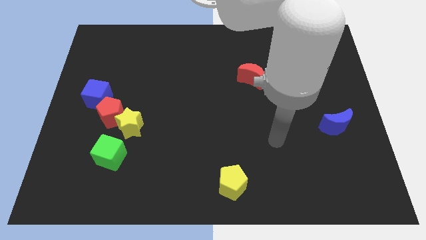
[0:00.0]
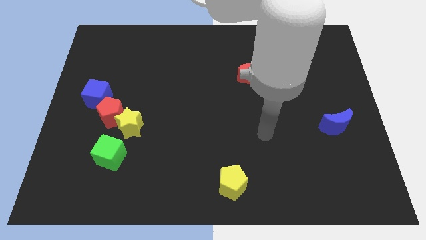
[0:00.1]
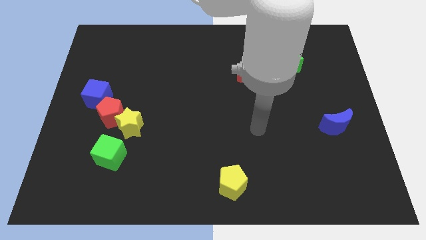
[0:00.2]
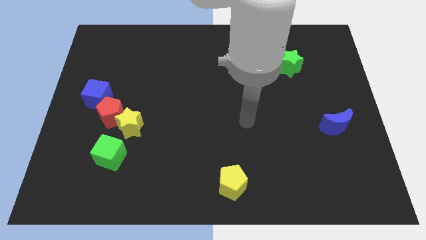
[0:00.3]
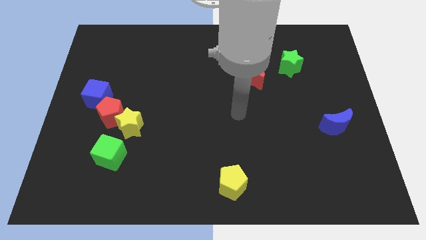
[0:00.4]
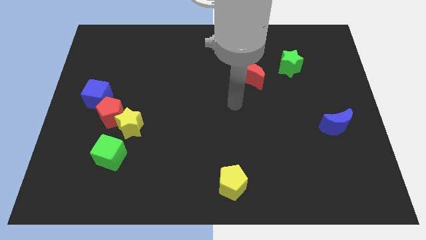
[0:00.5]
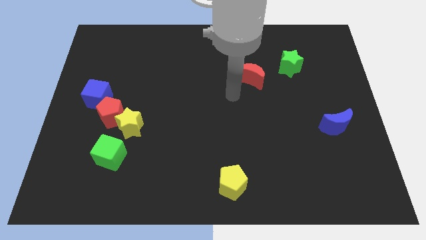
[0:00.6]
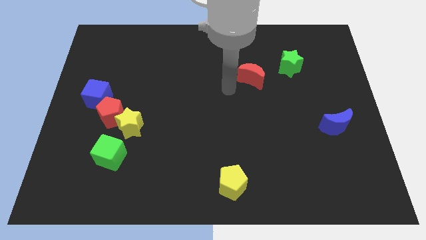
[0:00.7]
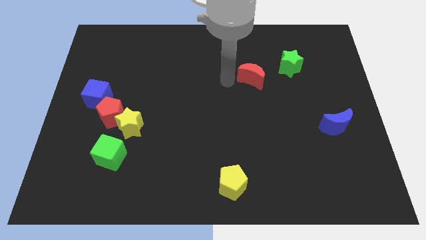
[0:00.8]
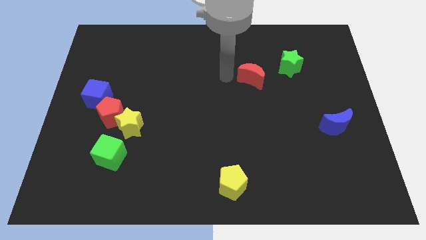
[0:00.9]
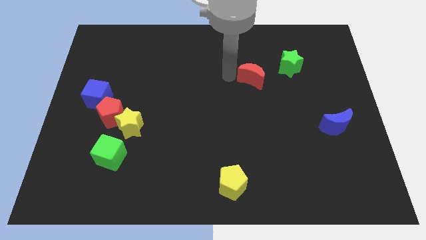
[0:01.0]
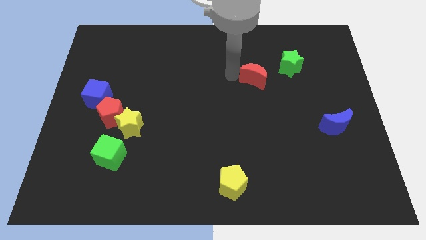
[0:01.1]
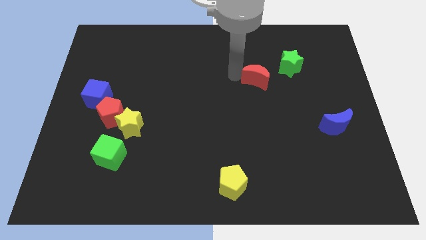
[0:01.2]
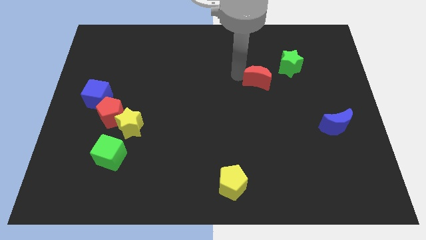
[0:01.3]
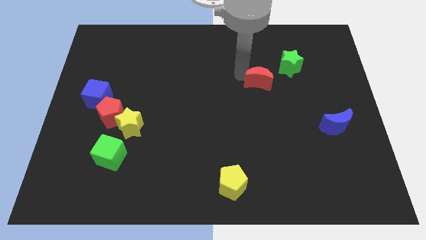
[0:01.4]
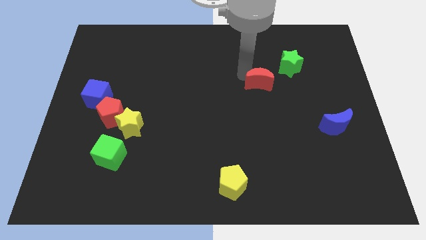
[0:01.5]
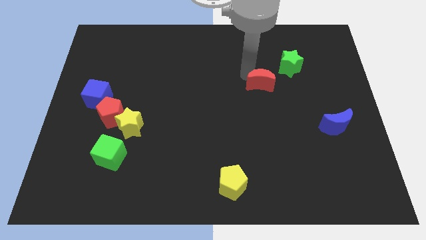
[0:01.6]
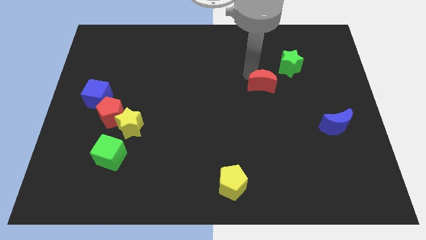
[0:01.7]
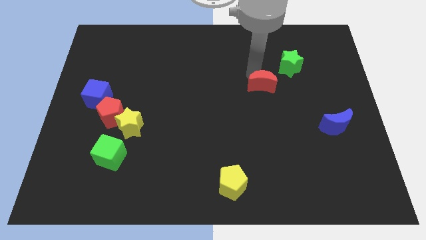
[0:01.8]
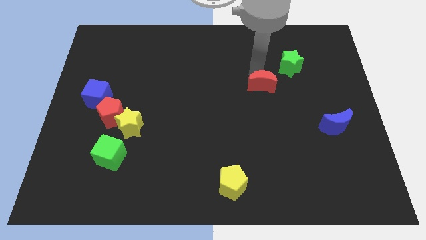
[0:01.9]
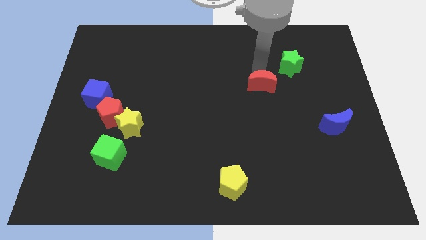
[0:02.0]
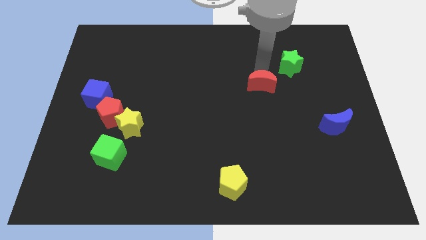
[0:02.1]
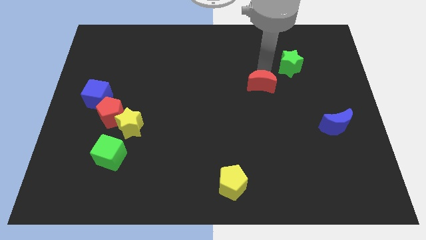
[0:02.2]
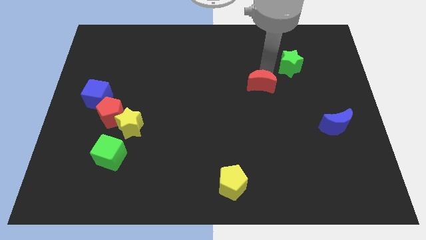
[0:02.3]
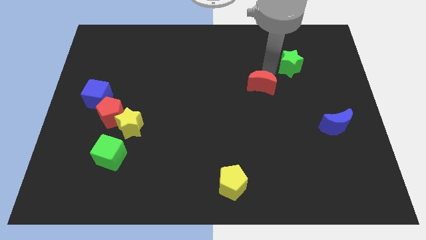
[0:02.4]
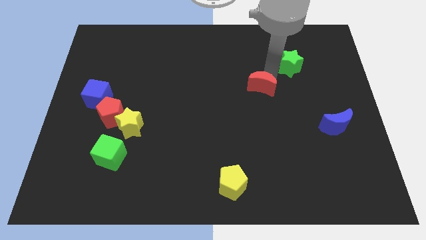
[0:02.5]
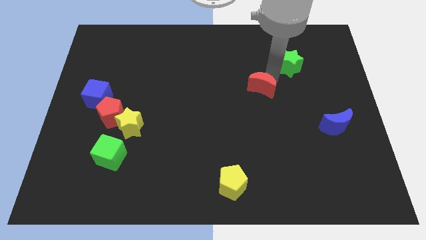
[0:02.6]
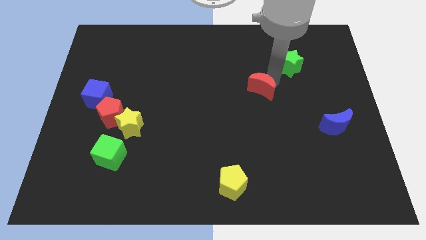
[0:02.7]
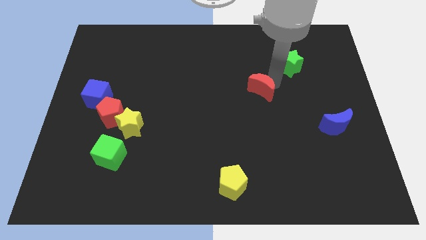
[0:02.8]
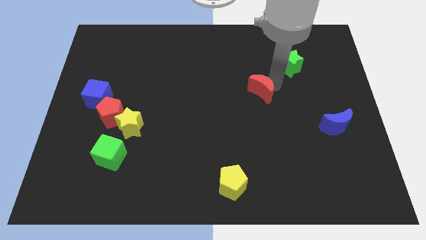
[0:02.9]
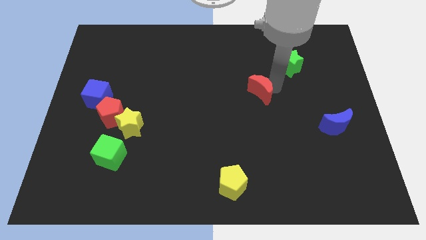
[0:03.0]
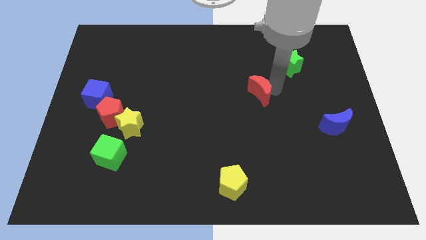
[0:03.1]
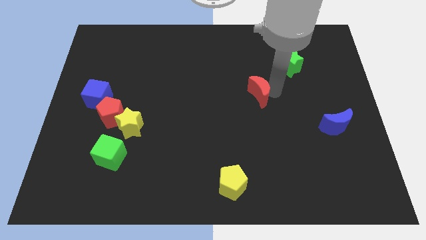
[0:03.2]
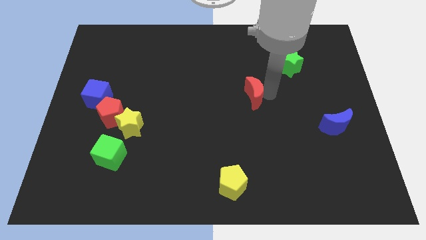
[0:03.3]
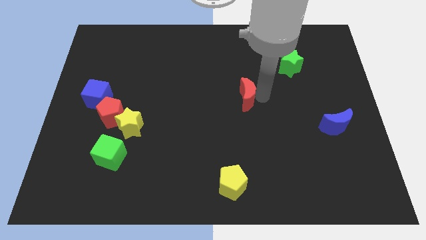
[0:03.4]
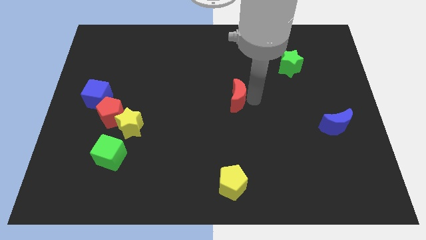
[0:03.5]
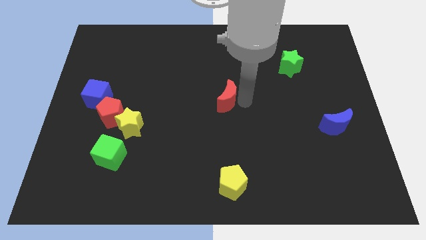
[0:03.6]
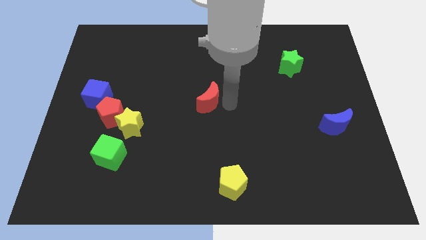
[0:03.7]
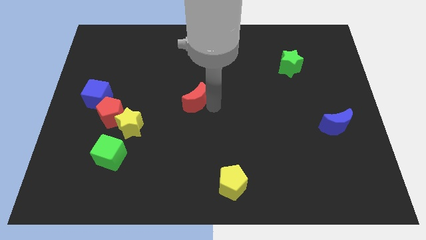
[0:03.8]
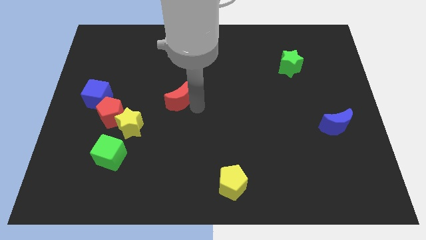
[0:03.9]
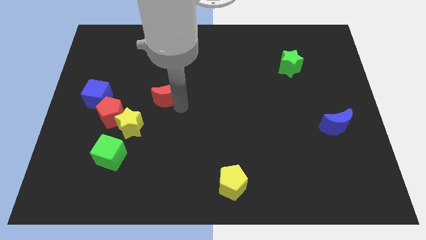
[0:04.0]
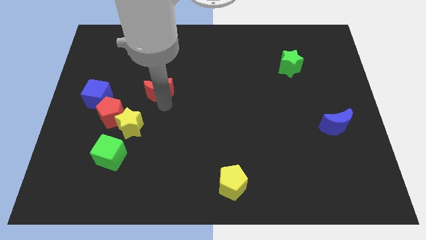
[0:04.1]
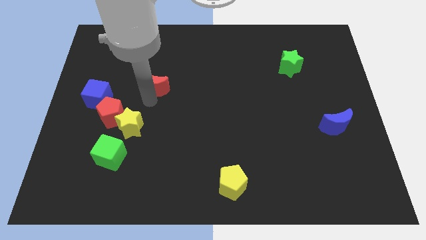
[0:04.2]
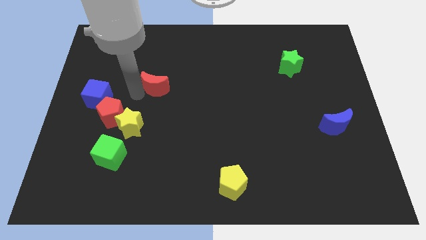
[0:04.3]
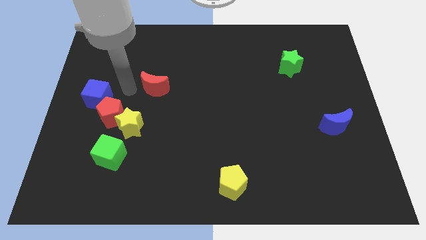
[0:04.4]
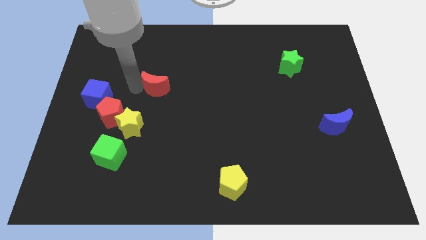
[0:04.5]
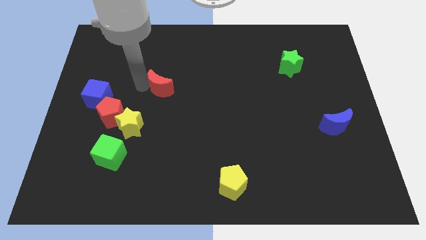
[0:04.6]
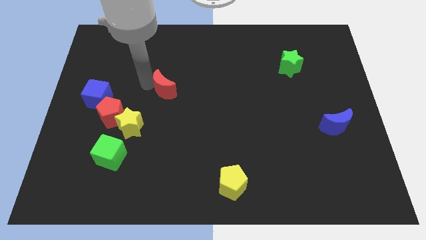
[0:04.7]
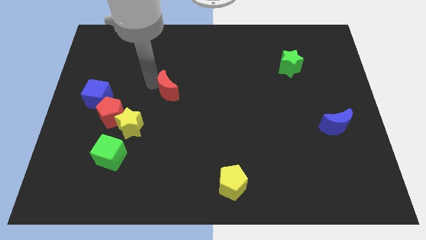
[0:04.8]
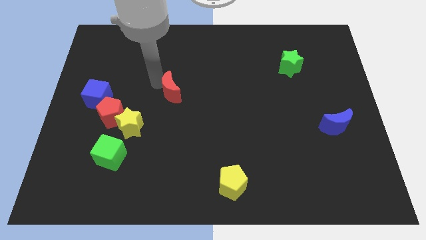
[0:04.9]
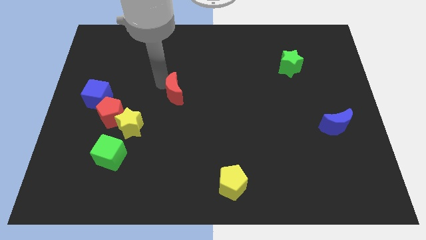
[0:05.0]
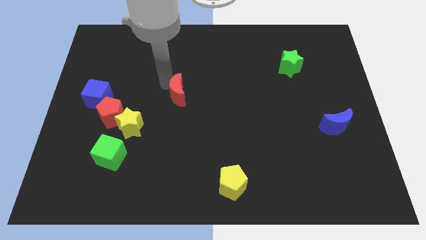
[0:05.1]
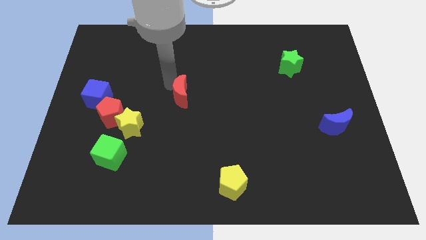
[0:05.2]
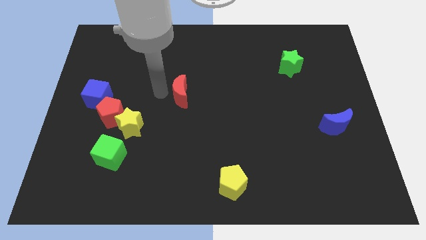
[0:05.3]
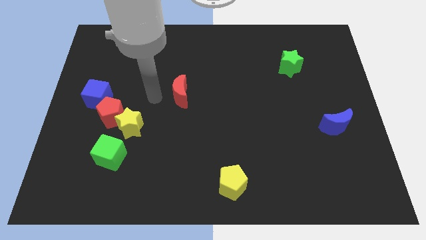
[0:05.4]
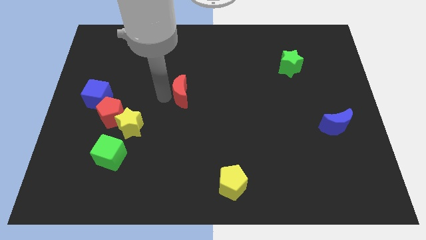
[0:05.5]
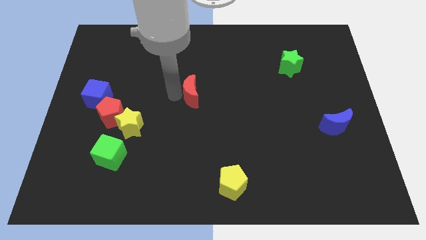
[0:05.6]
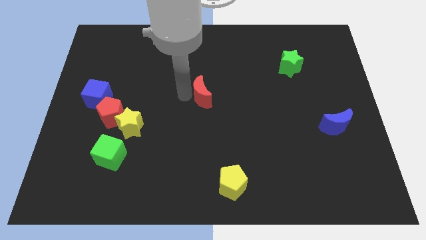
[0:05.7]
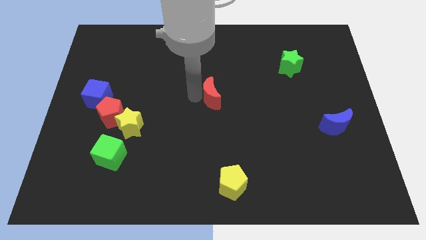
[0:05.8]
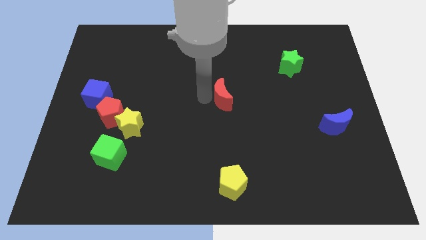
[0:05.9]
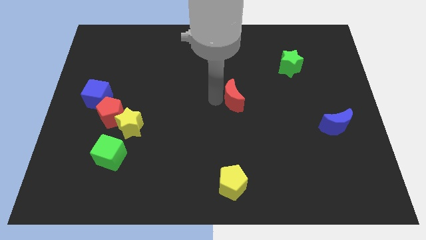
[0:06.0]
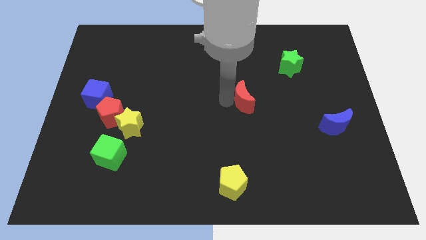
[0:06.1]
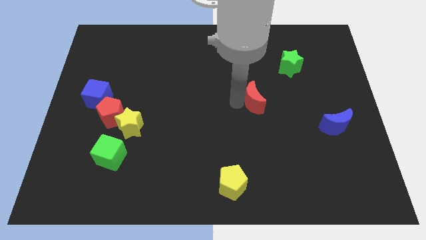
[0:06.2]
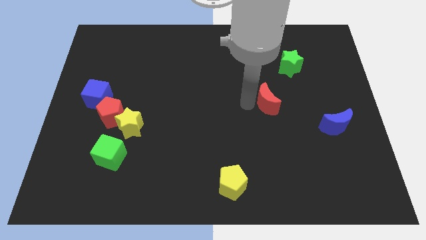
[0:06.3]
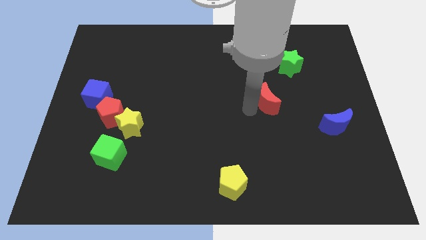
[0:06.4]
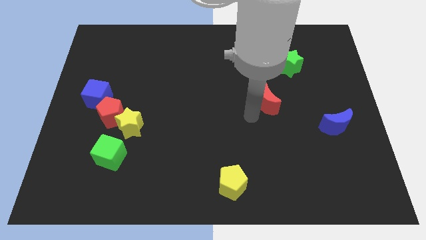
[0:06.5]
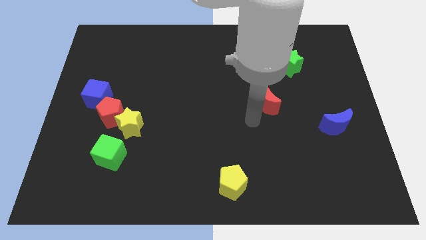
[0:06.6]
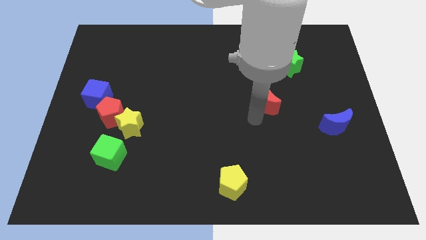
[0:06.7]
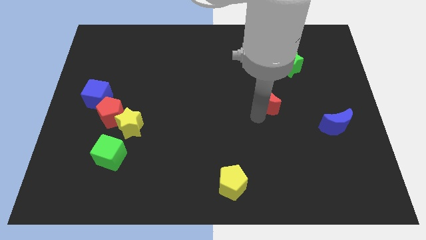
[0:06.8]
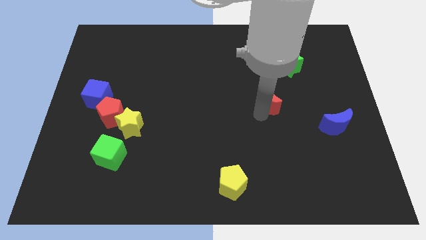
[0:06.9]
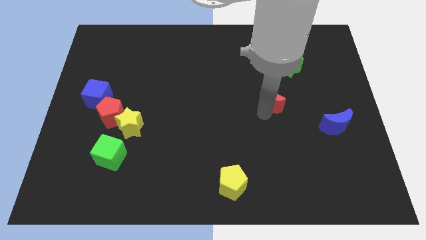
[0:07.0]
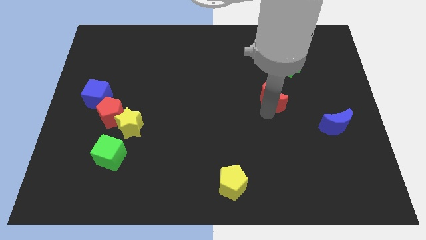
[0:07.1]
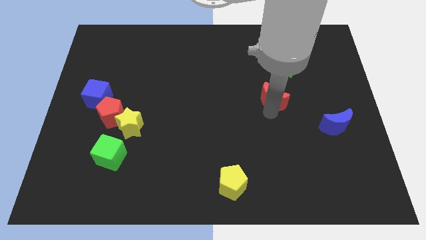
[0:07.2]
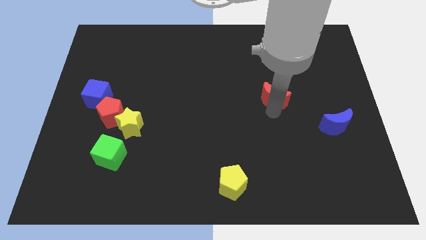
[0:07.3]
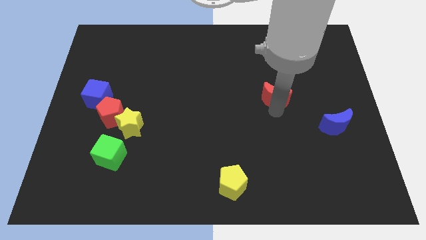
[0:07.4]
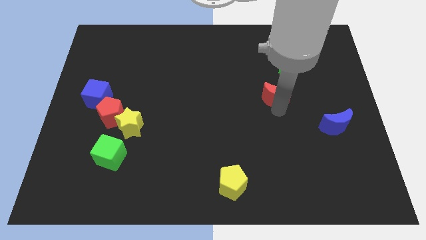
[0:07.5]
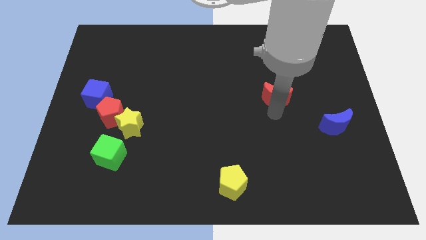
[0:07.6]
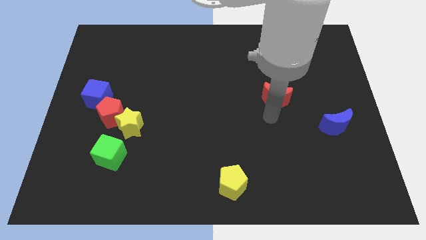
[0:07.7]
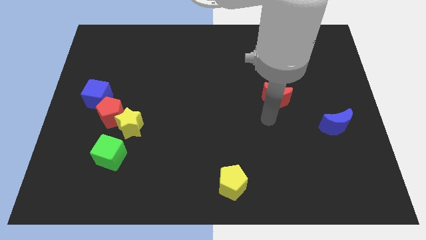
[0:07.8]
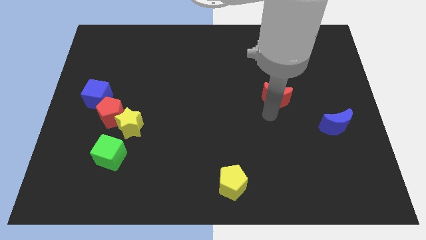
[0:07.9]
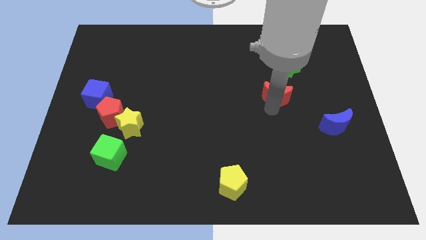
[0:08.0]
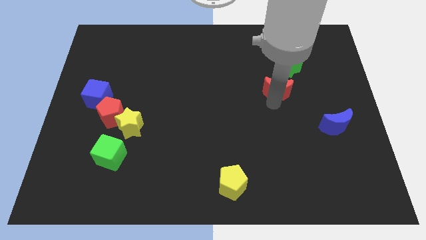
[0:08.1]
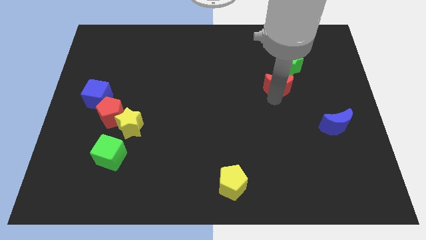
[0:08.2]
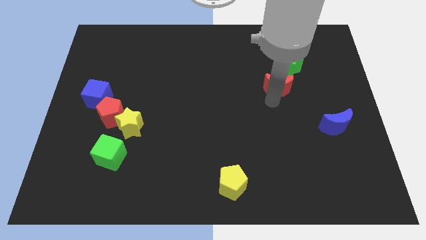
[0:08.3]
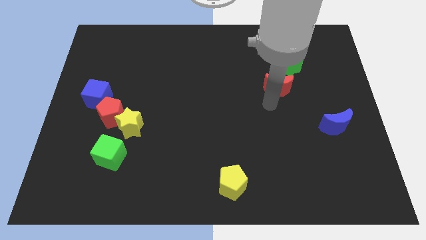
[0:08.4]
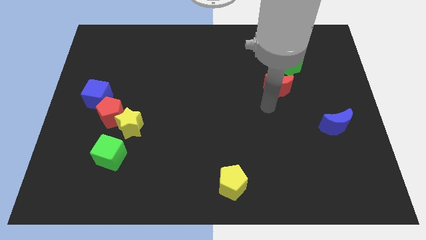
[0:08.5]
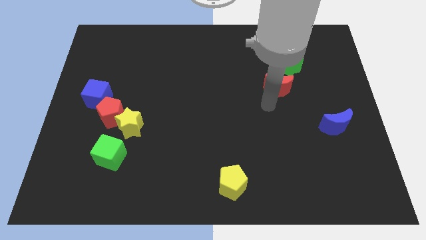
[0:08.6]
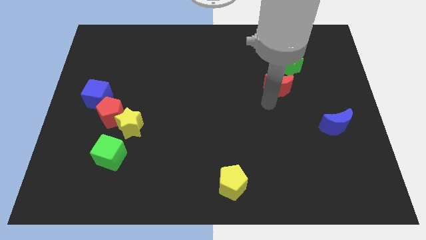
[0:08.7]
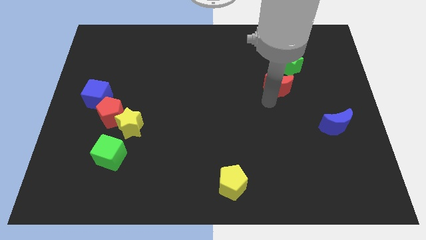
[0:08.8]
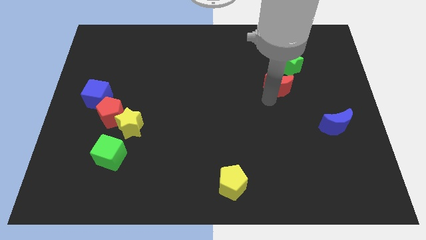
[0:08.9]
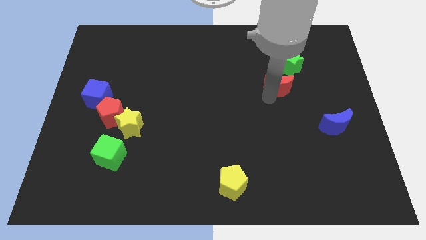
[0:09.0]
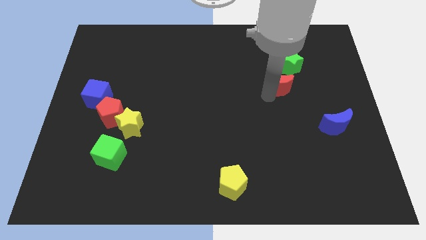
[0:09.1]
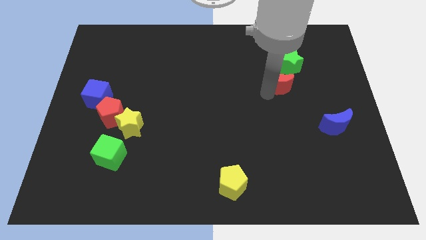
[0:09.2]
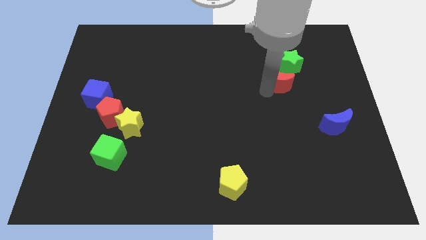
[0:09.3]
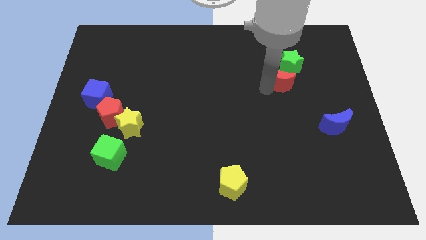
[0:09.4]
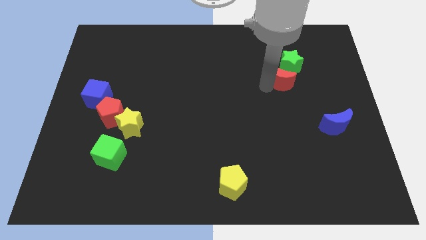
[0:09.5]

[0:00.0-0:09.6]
slightly slide the red moon right
